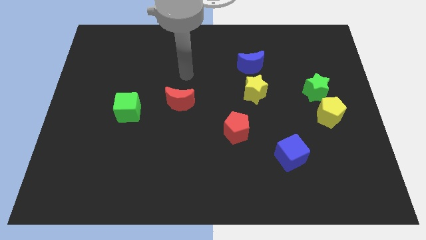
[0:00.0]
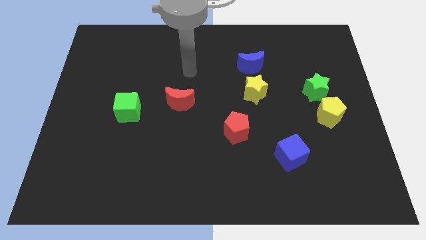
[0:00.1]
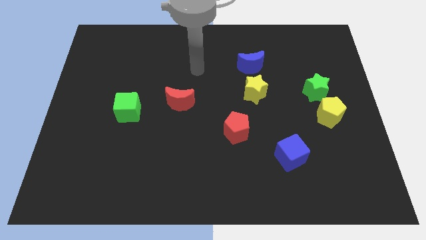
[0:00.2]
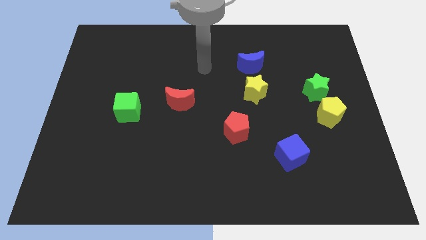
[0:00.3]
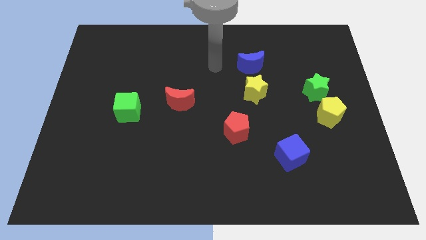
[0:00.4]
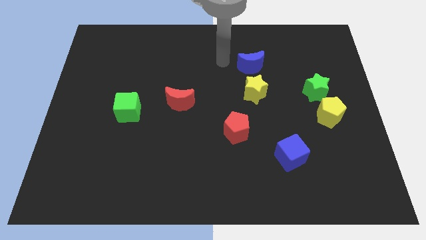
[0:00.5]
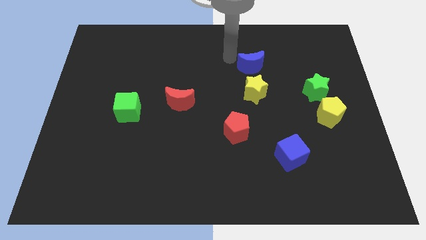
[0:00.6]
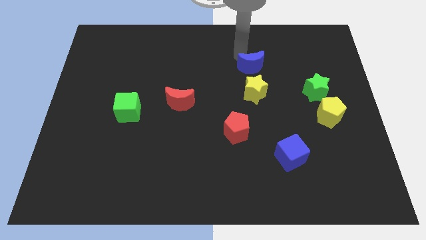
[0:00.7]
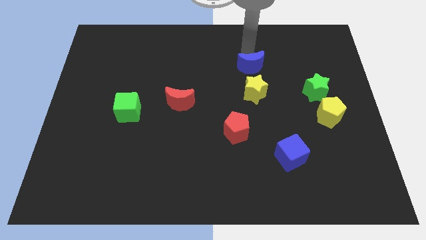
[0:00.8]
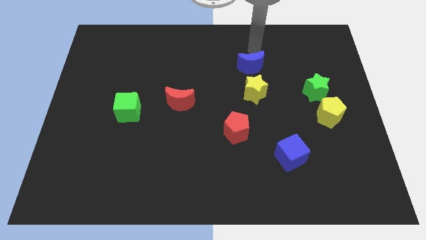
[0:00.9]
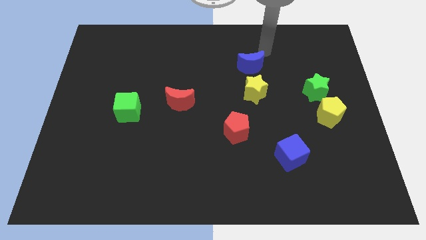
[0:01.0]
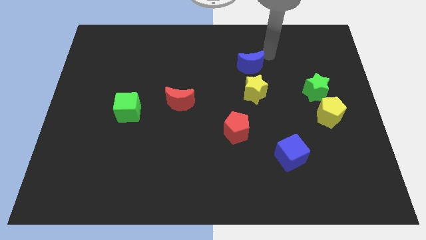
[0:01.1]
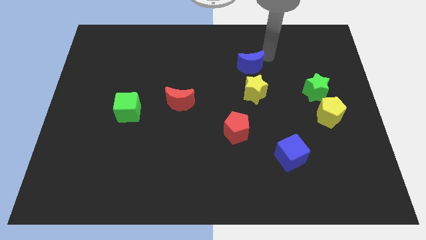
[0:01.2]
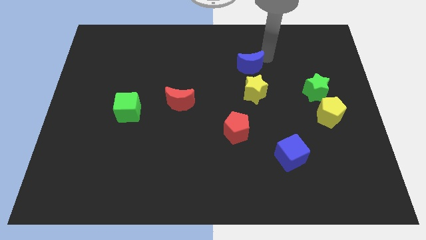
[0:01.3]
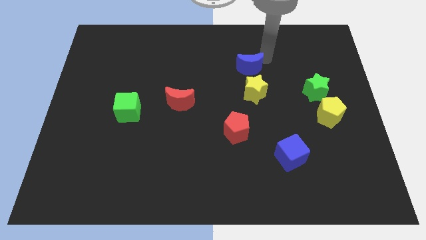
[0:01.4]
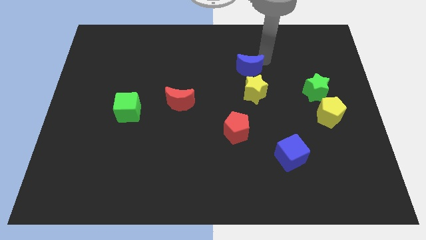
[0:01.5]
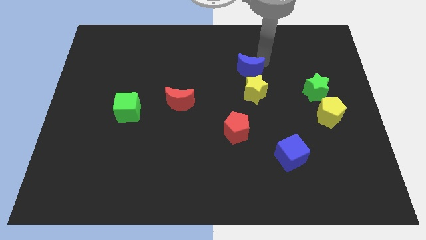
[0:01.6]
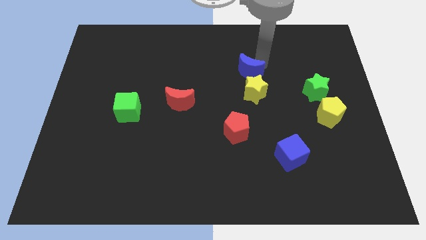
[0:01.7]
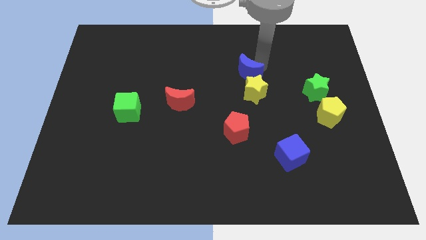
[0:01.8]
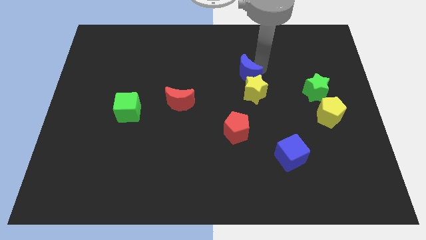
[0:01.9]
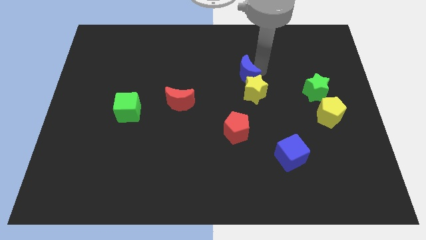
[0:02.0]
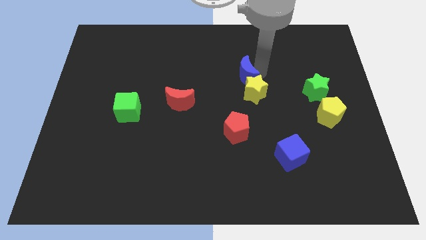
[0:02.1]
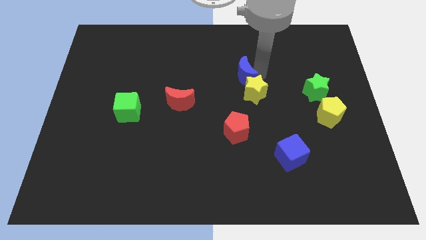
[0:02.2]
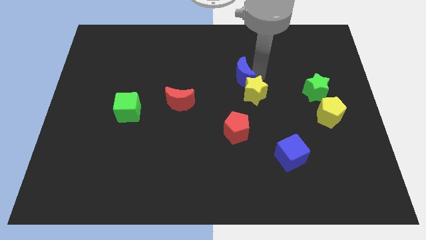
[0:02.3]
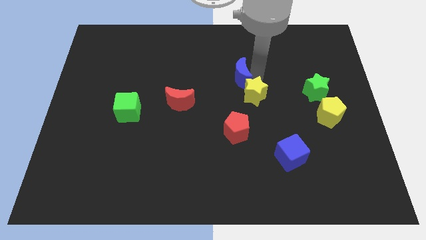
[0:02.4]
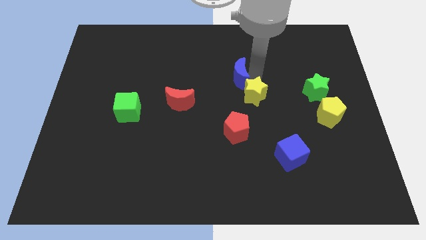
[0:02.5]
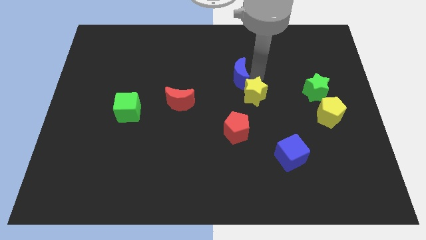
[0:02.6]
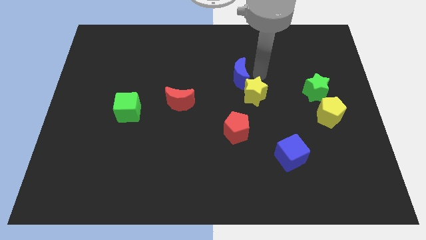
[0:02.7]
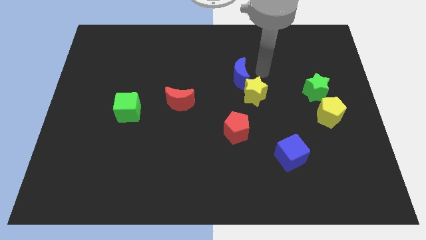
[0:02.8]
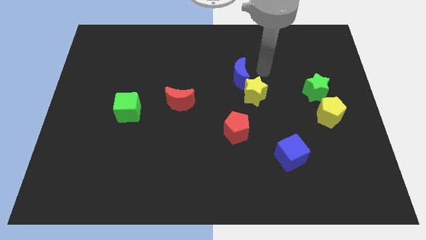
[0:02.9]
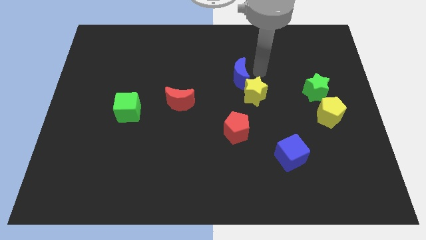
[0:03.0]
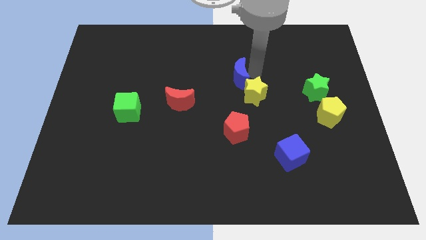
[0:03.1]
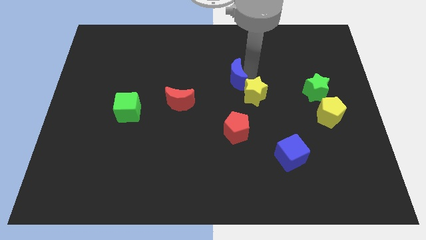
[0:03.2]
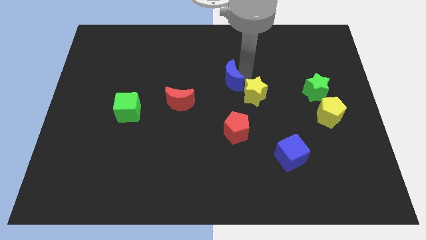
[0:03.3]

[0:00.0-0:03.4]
push the blue moon somewhat downwards and left diagonally

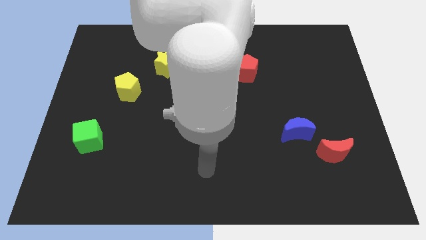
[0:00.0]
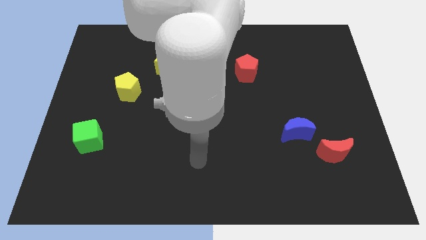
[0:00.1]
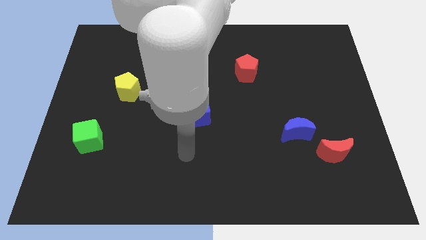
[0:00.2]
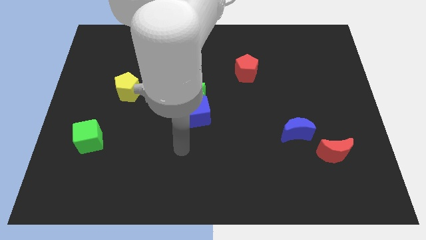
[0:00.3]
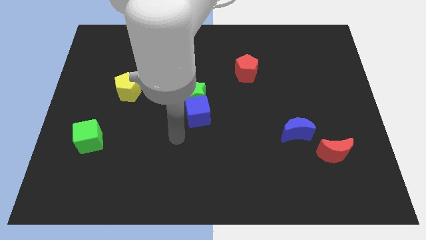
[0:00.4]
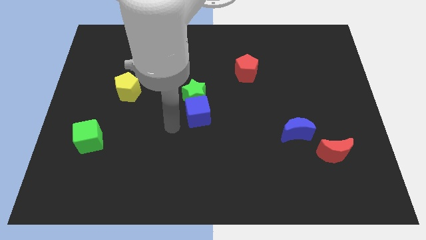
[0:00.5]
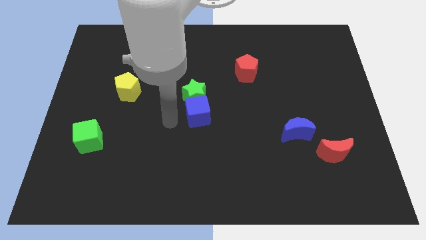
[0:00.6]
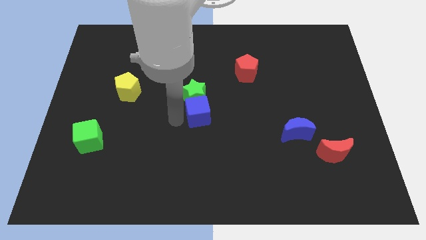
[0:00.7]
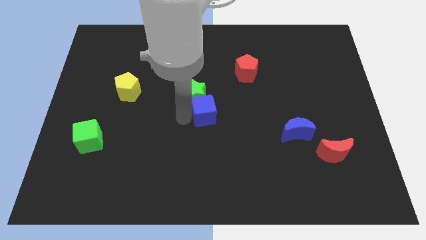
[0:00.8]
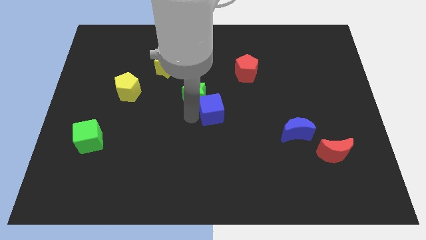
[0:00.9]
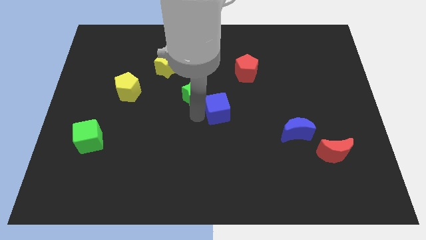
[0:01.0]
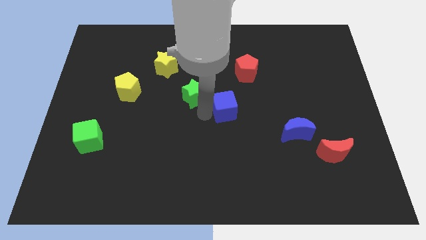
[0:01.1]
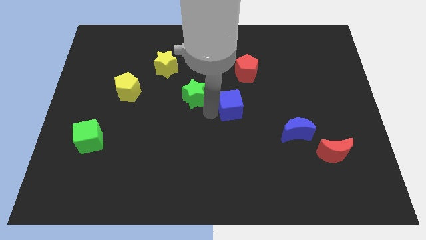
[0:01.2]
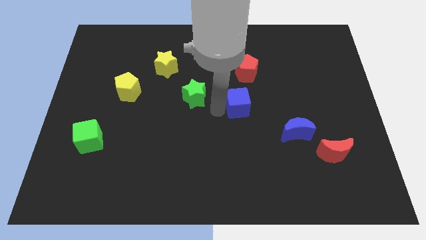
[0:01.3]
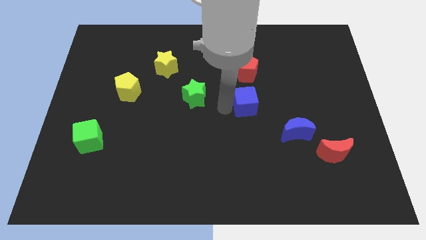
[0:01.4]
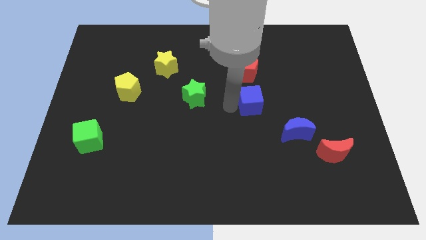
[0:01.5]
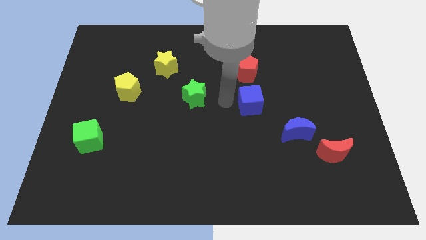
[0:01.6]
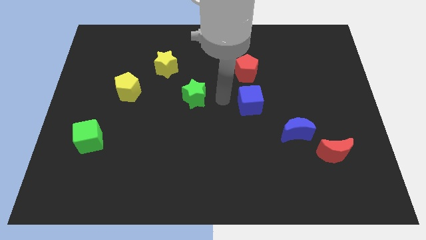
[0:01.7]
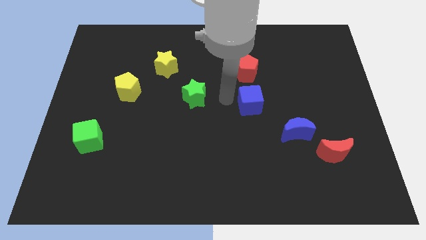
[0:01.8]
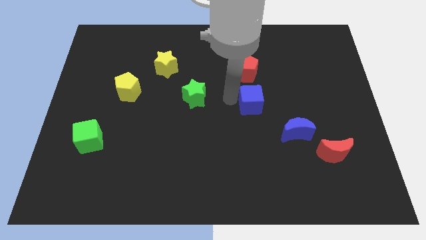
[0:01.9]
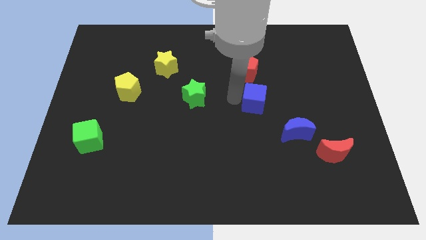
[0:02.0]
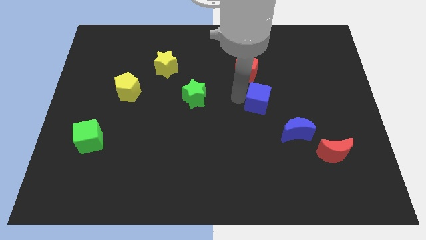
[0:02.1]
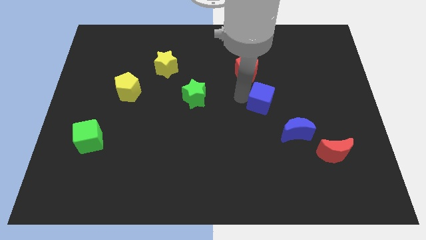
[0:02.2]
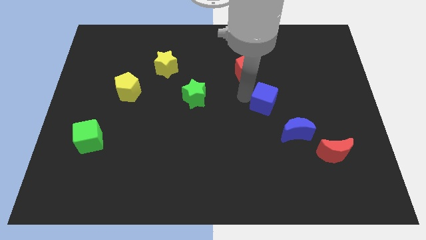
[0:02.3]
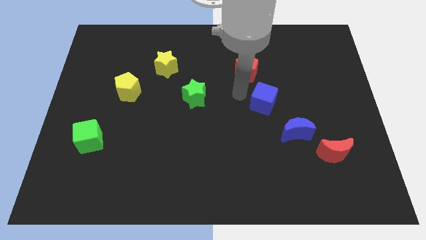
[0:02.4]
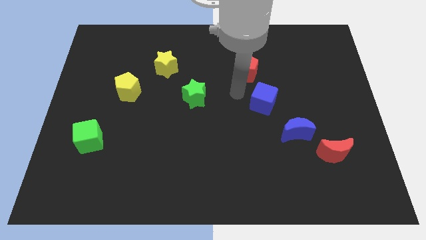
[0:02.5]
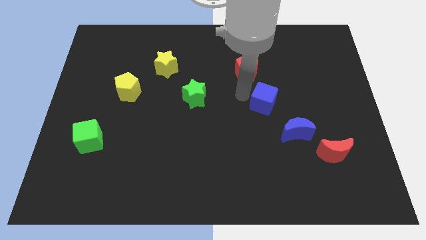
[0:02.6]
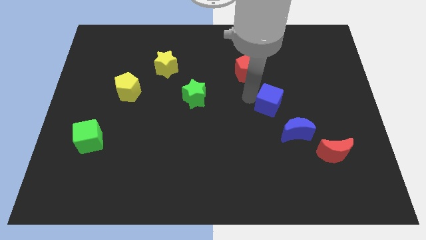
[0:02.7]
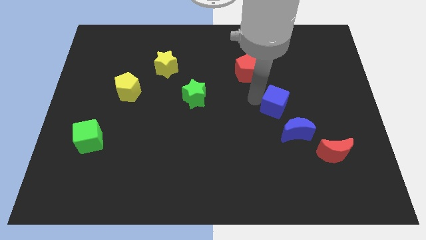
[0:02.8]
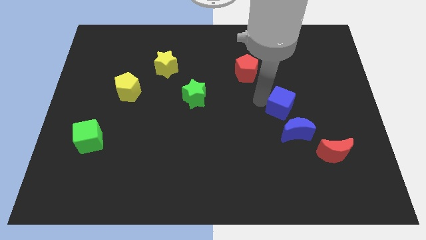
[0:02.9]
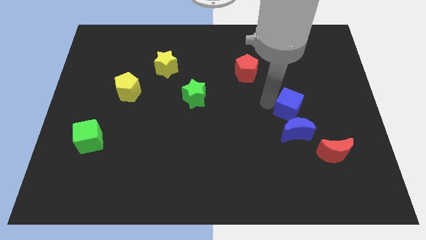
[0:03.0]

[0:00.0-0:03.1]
slide the blue cube to the right

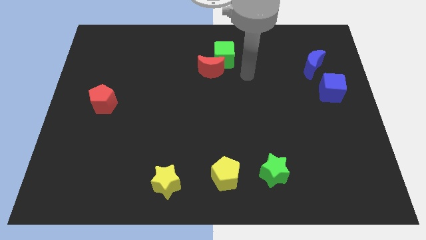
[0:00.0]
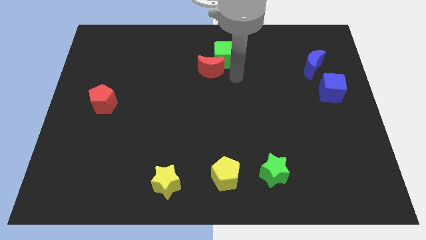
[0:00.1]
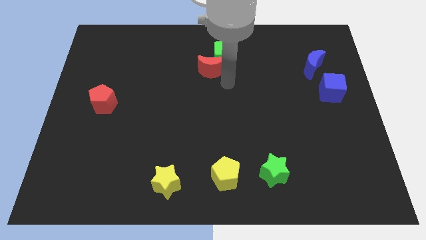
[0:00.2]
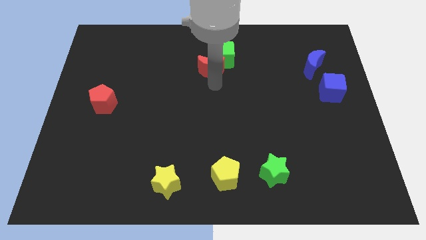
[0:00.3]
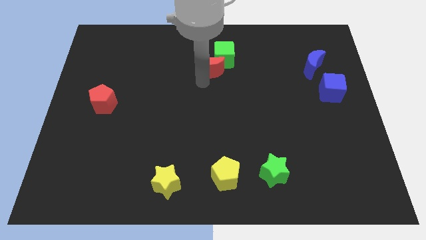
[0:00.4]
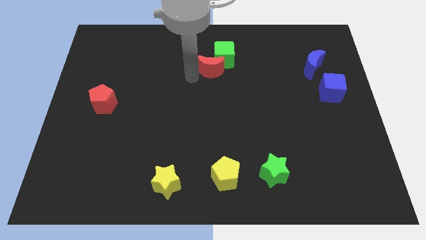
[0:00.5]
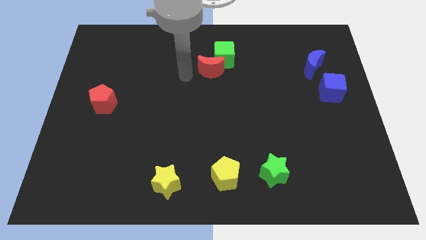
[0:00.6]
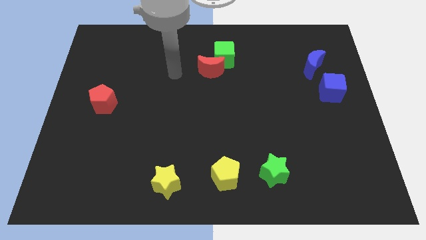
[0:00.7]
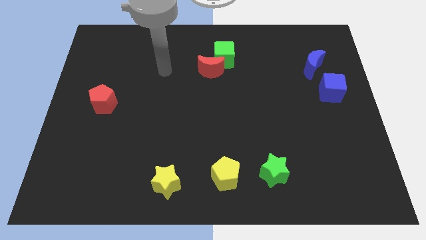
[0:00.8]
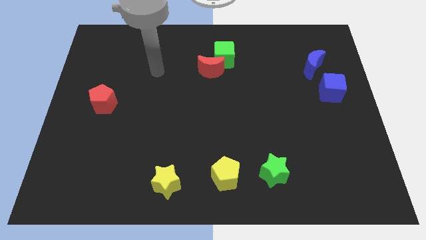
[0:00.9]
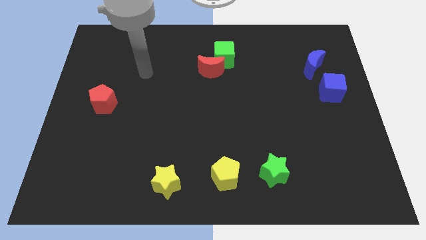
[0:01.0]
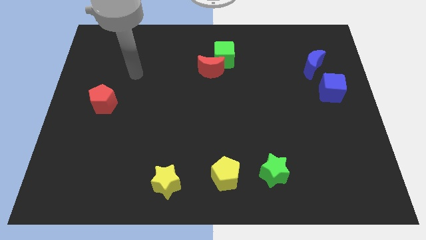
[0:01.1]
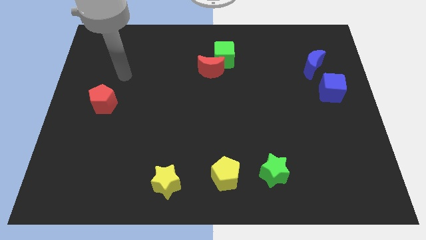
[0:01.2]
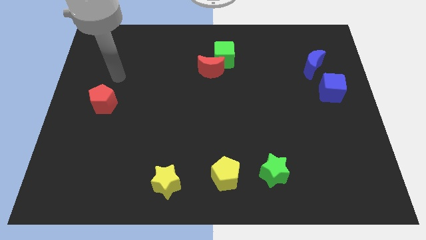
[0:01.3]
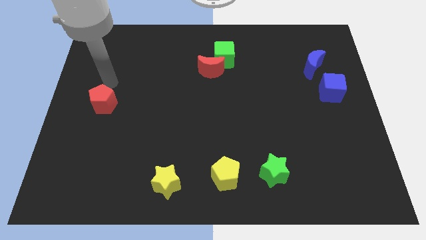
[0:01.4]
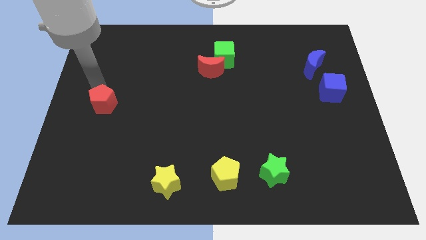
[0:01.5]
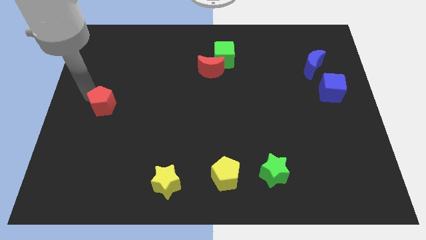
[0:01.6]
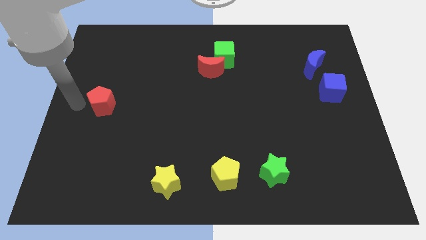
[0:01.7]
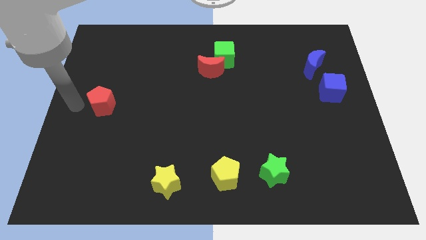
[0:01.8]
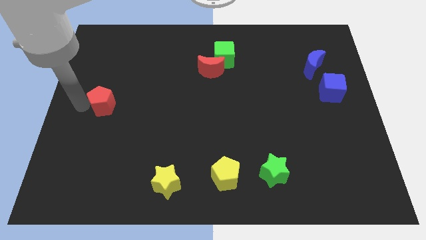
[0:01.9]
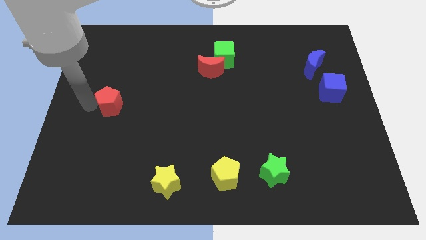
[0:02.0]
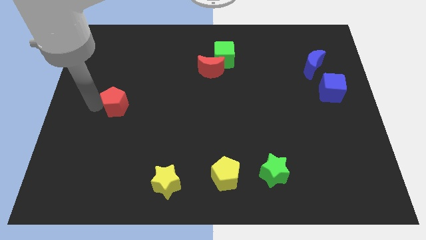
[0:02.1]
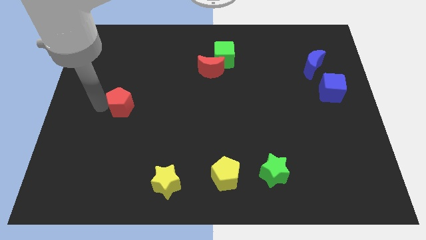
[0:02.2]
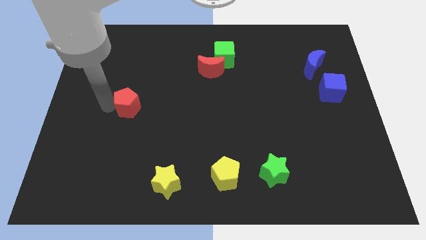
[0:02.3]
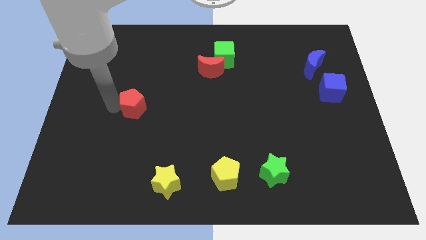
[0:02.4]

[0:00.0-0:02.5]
move the red pentagon a bit right
